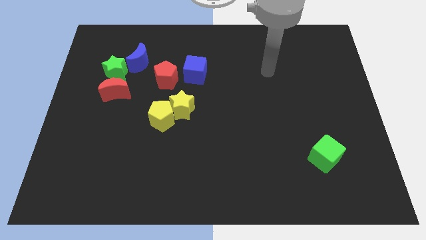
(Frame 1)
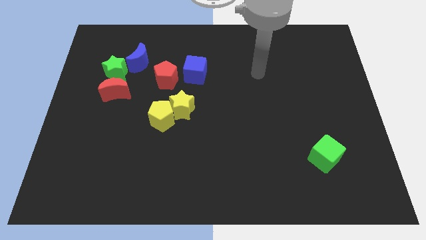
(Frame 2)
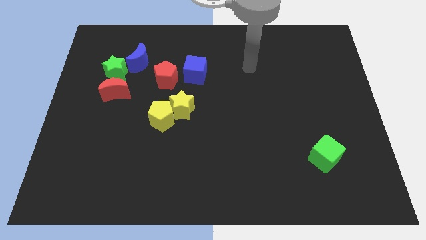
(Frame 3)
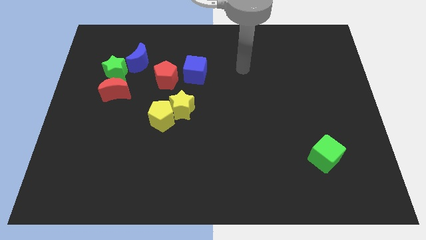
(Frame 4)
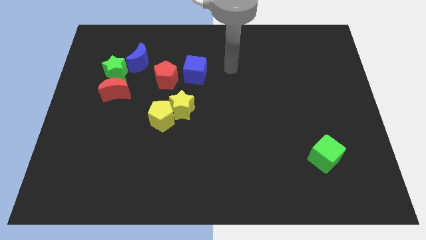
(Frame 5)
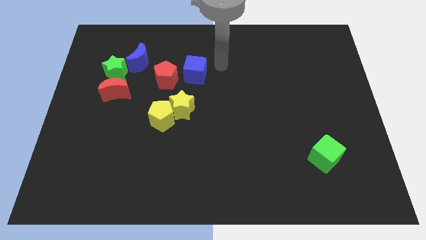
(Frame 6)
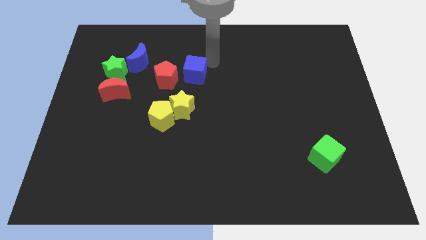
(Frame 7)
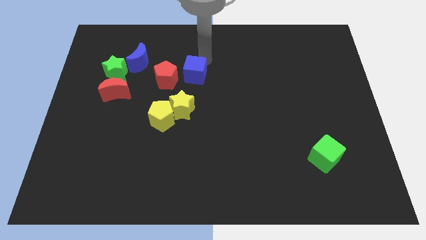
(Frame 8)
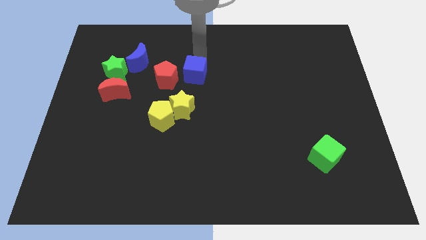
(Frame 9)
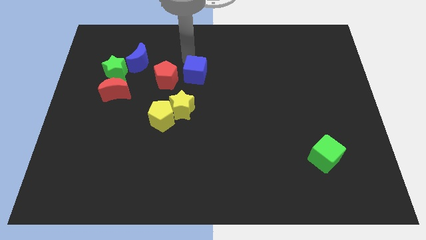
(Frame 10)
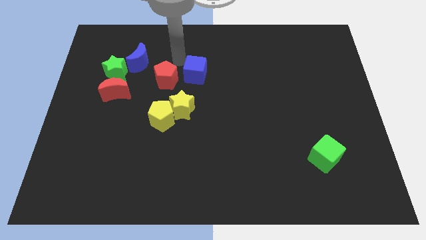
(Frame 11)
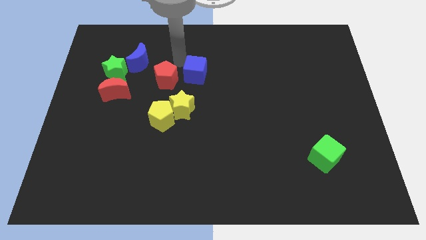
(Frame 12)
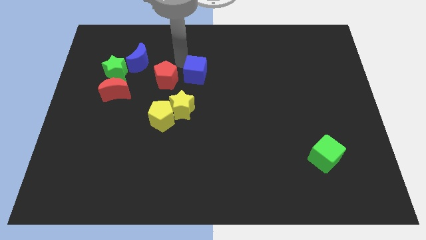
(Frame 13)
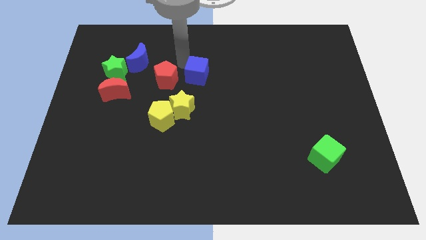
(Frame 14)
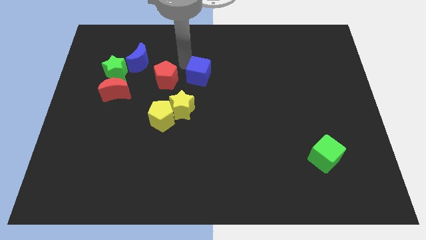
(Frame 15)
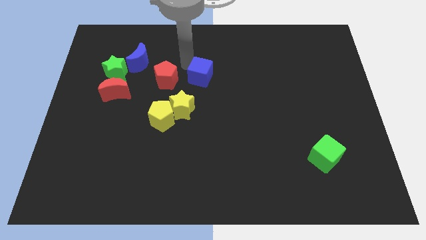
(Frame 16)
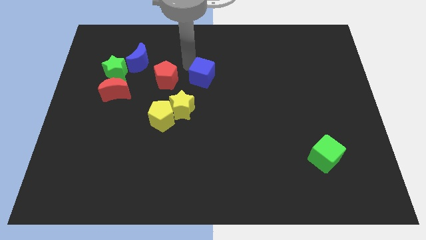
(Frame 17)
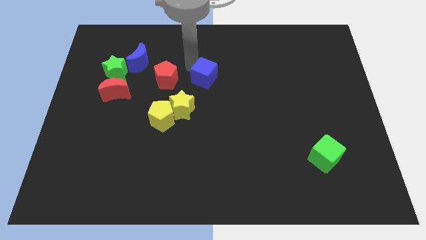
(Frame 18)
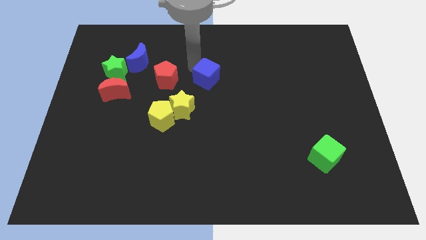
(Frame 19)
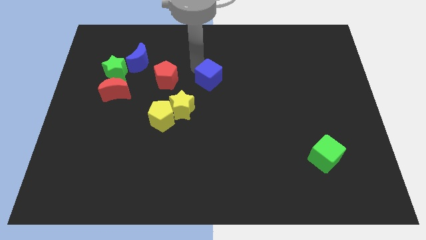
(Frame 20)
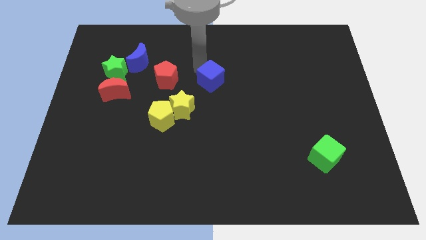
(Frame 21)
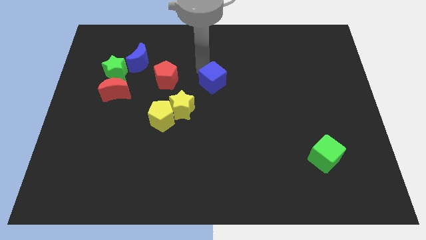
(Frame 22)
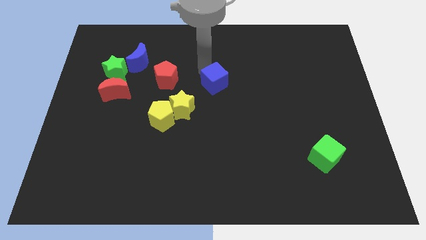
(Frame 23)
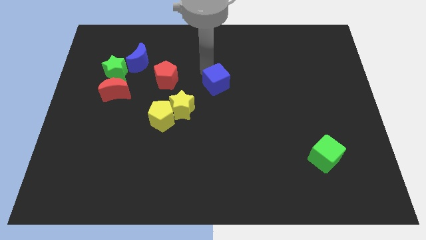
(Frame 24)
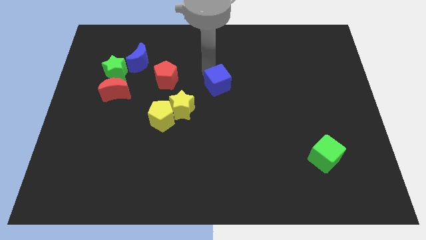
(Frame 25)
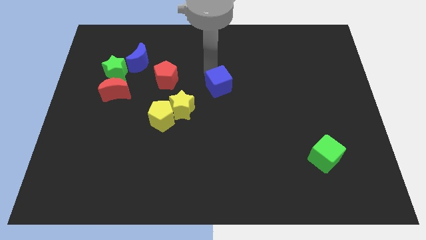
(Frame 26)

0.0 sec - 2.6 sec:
push the blue cube a bit diagonally down and right

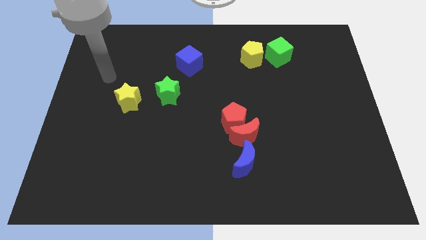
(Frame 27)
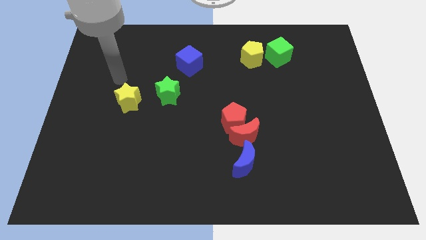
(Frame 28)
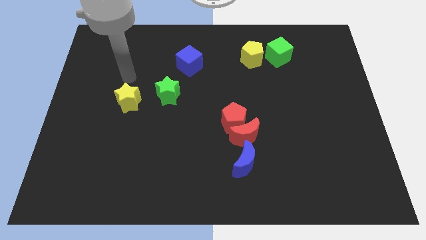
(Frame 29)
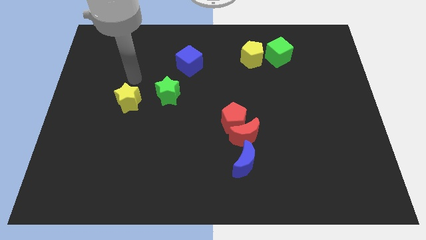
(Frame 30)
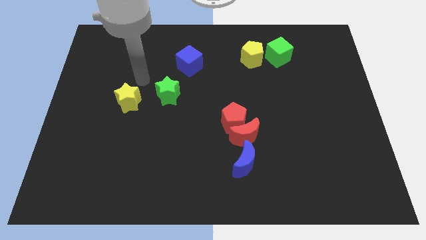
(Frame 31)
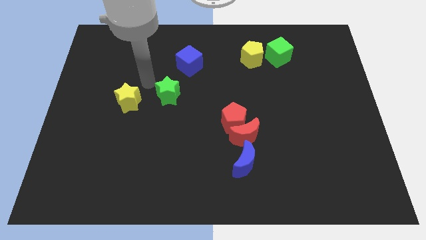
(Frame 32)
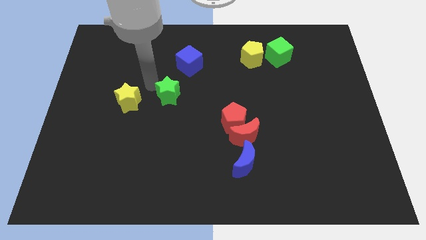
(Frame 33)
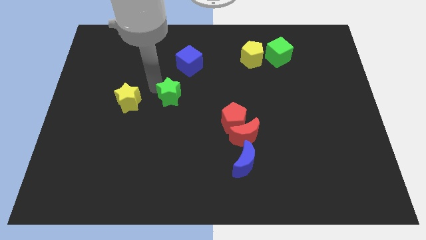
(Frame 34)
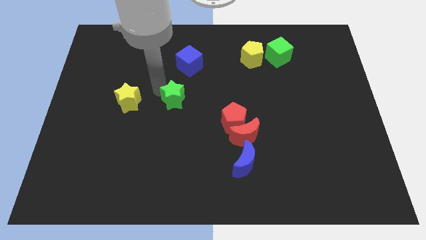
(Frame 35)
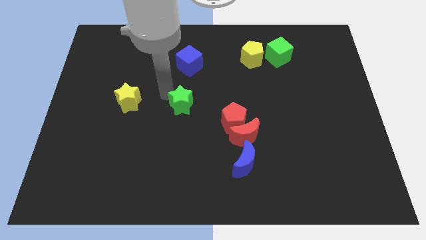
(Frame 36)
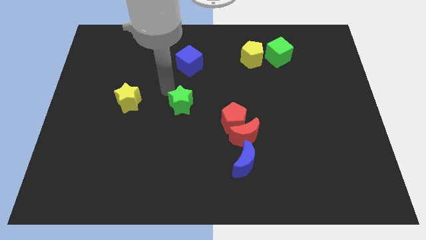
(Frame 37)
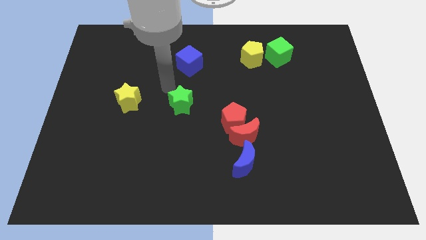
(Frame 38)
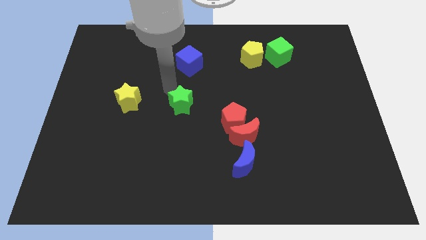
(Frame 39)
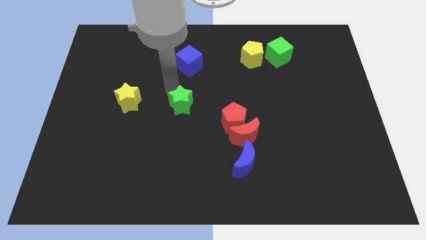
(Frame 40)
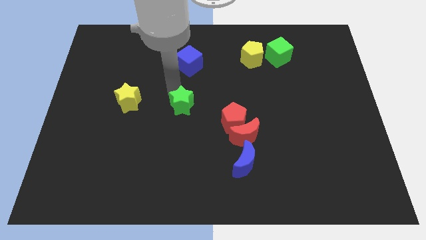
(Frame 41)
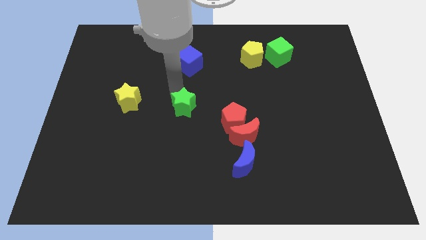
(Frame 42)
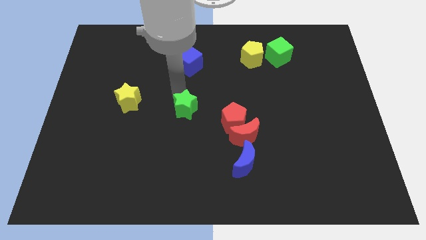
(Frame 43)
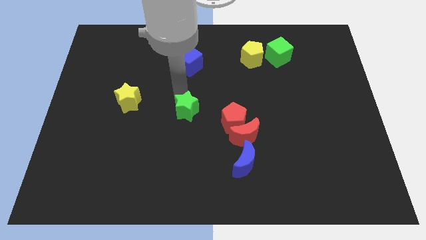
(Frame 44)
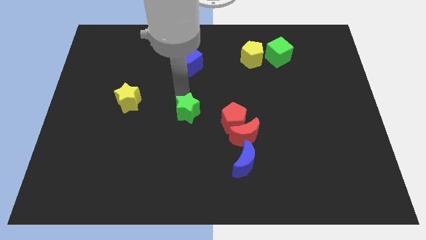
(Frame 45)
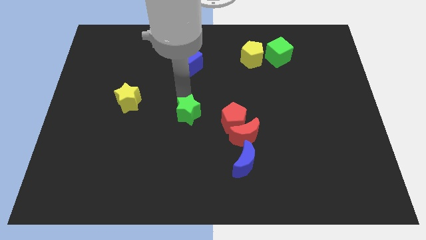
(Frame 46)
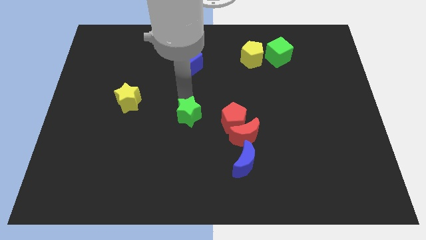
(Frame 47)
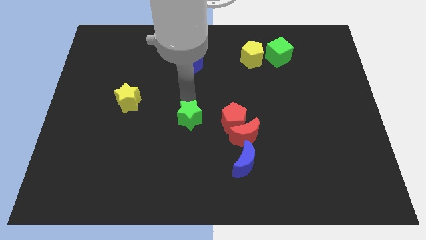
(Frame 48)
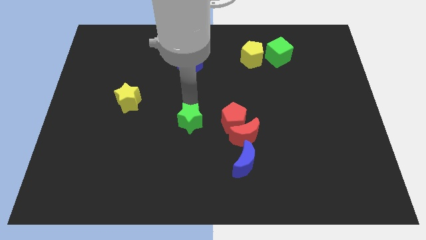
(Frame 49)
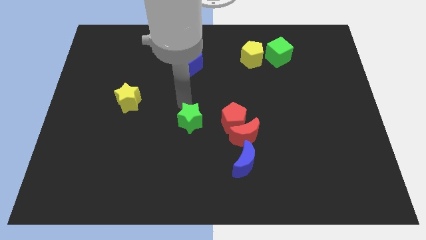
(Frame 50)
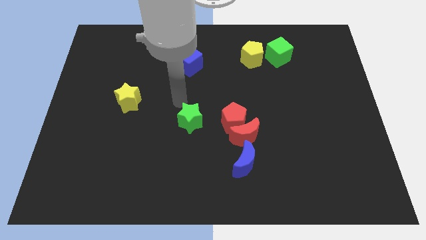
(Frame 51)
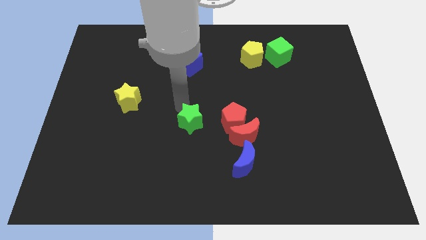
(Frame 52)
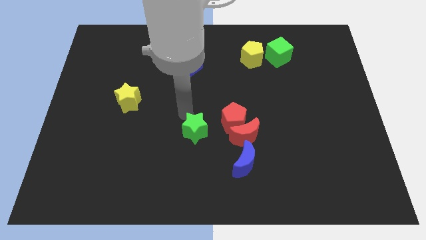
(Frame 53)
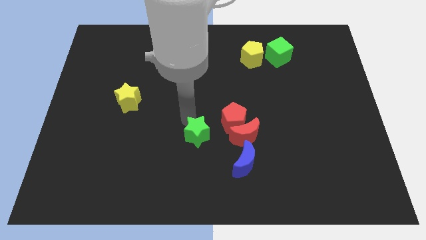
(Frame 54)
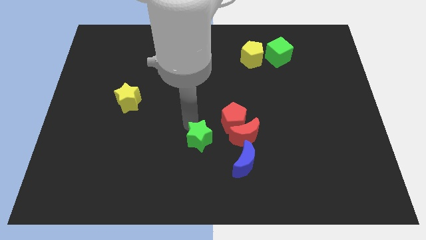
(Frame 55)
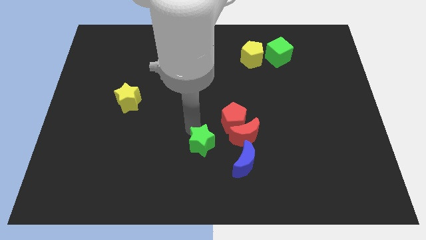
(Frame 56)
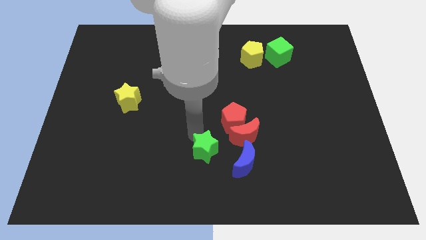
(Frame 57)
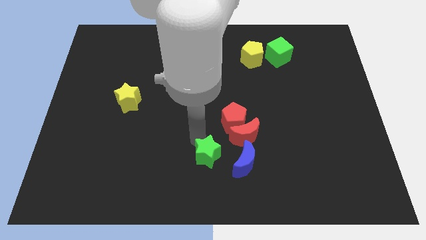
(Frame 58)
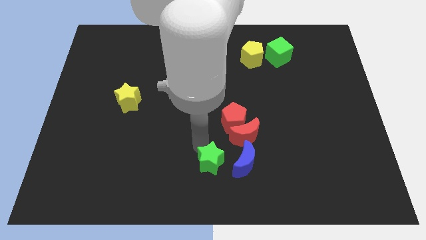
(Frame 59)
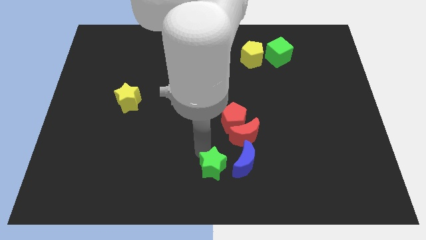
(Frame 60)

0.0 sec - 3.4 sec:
slide the green star diagonally down and to the right

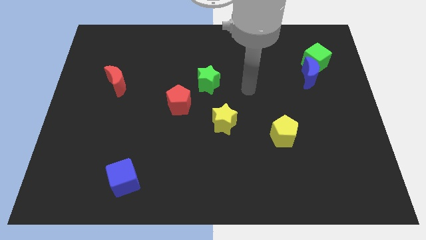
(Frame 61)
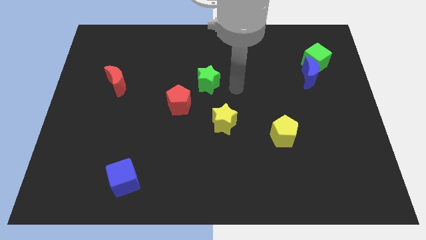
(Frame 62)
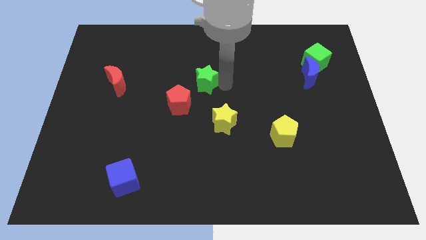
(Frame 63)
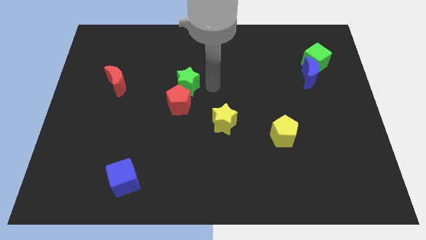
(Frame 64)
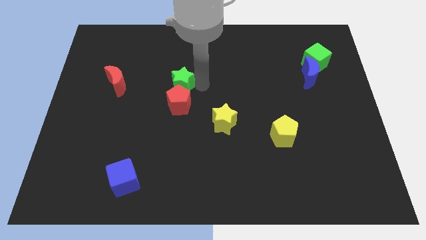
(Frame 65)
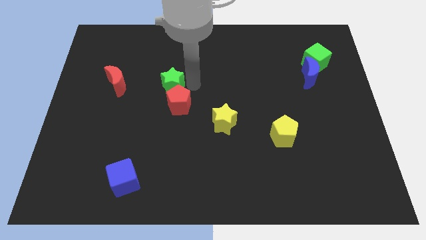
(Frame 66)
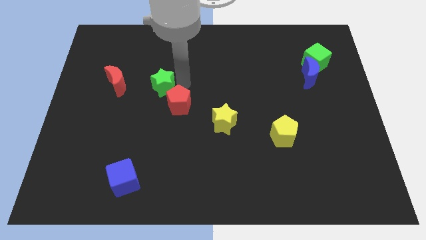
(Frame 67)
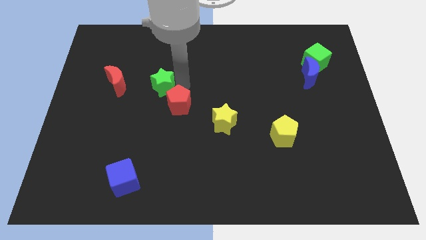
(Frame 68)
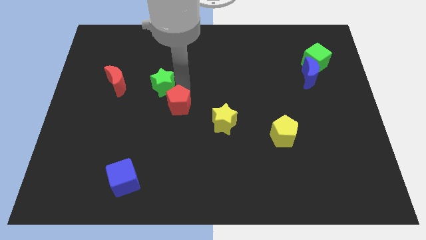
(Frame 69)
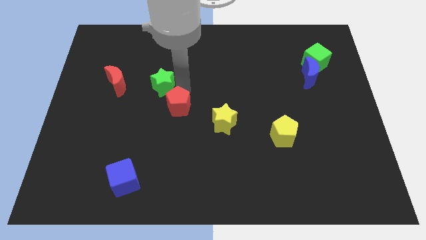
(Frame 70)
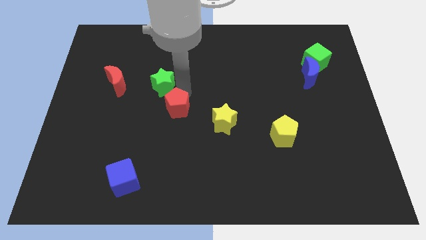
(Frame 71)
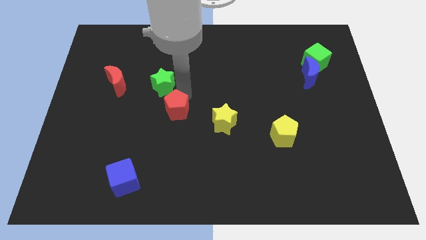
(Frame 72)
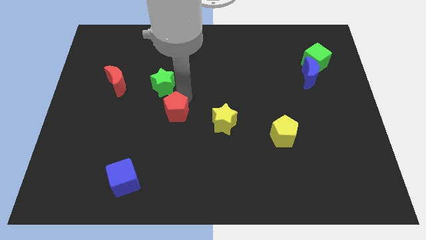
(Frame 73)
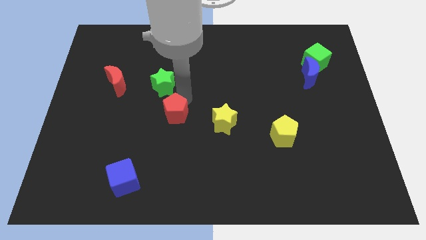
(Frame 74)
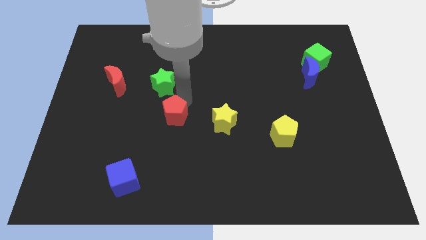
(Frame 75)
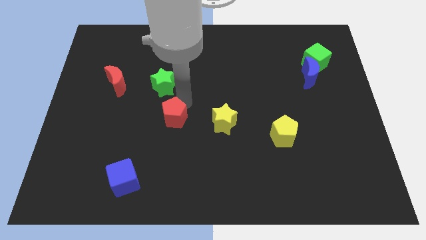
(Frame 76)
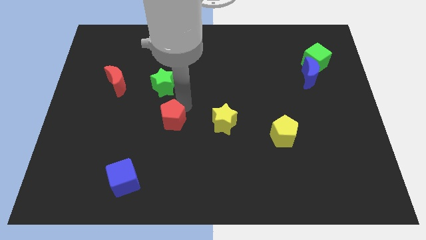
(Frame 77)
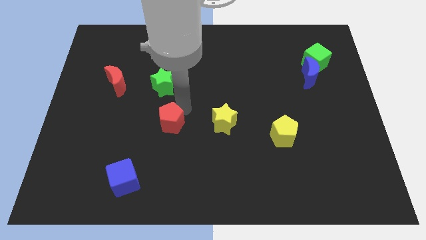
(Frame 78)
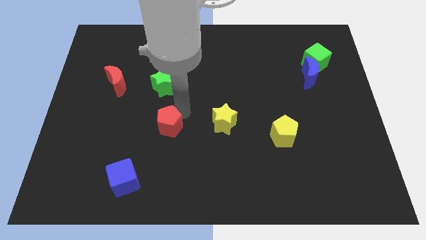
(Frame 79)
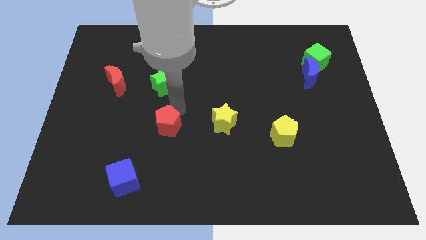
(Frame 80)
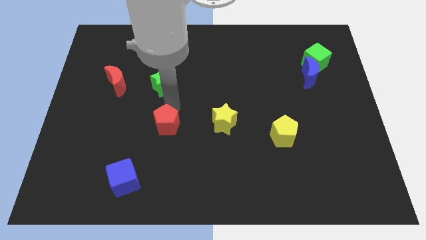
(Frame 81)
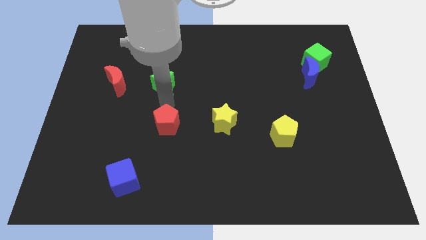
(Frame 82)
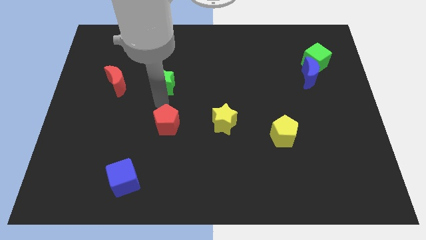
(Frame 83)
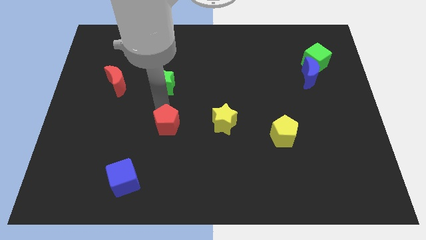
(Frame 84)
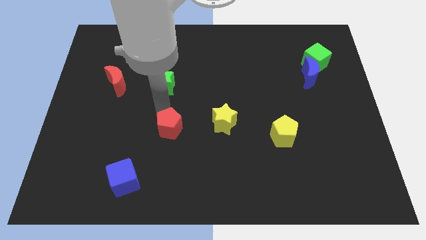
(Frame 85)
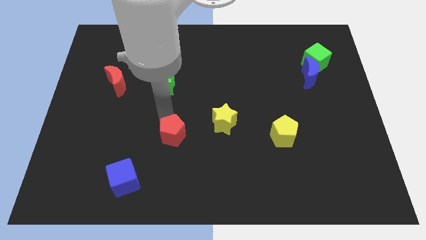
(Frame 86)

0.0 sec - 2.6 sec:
slide the red pentagon downwards slightly
